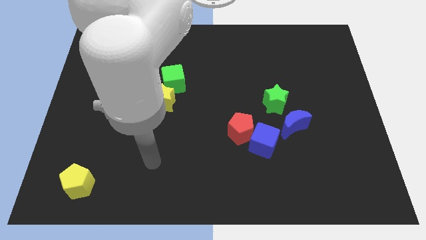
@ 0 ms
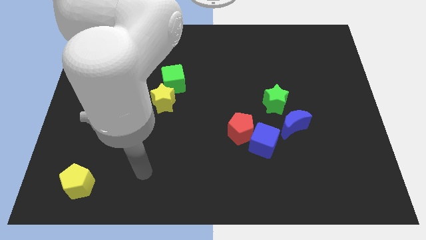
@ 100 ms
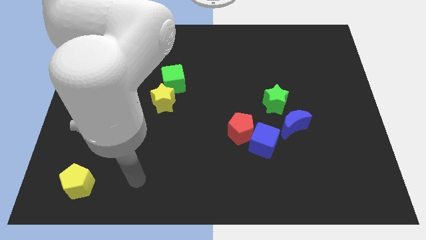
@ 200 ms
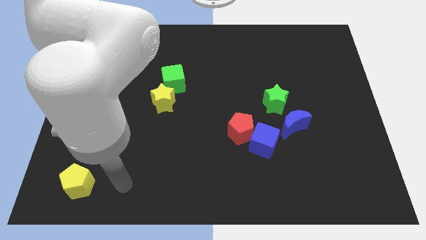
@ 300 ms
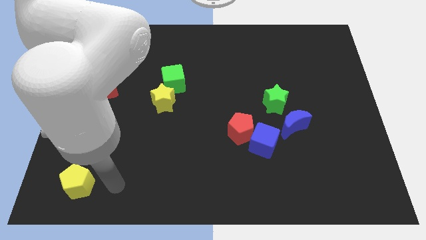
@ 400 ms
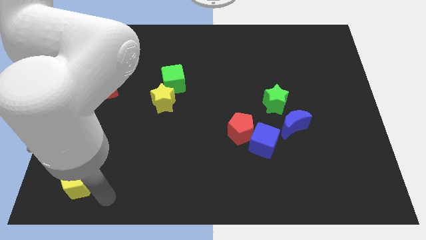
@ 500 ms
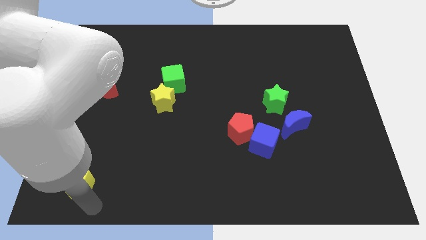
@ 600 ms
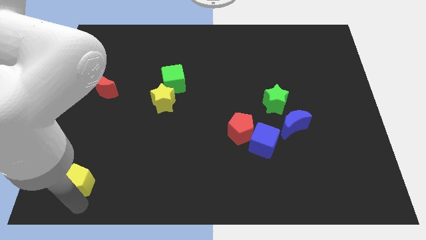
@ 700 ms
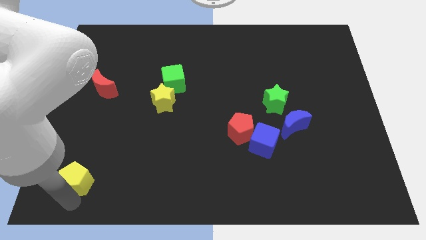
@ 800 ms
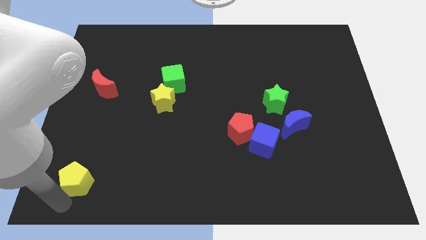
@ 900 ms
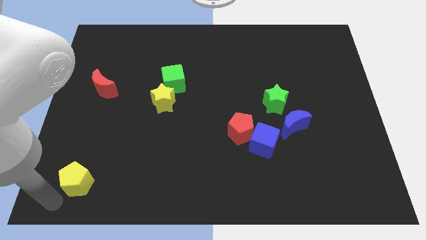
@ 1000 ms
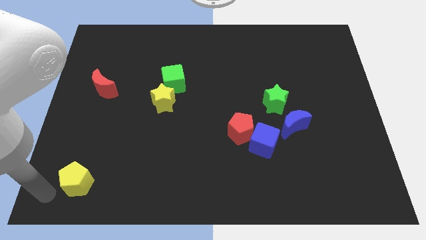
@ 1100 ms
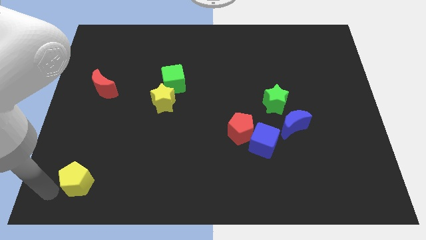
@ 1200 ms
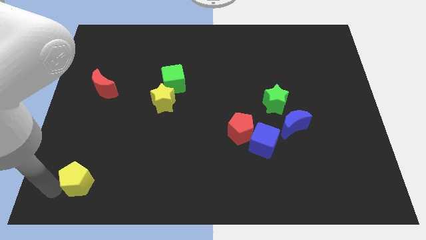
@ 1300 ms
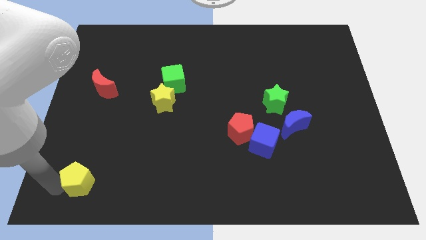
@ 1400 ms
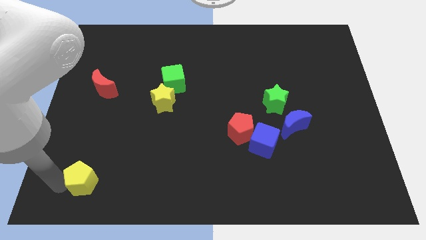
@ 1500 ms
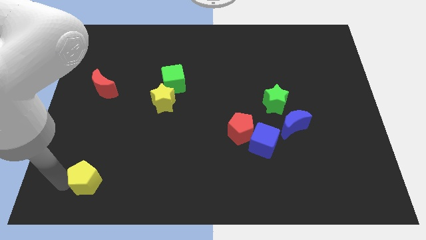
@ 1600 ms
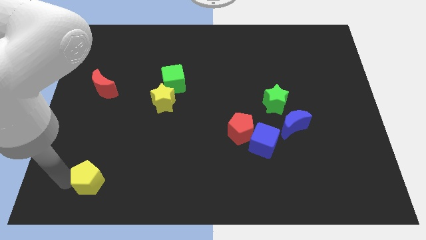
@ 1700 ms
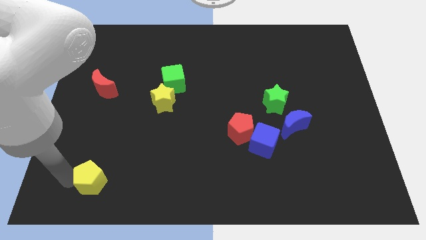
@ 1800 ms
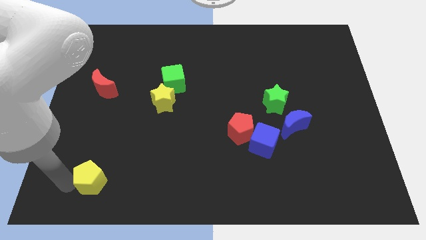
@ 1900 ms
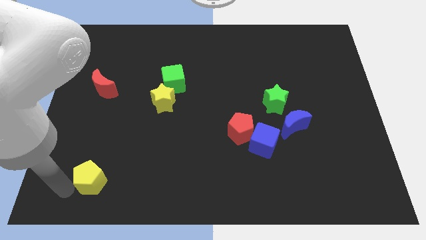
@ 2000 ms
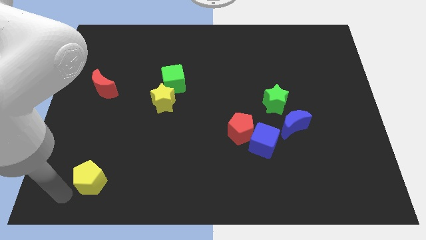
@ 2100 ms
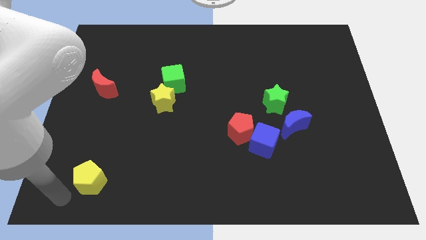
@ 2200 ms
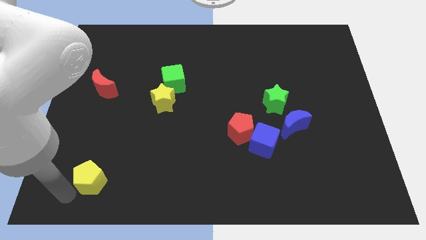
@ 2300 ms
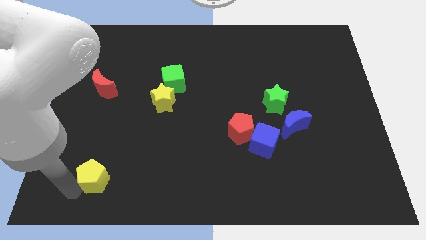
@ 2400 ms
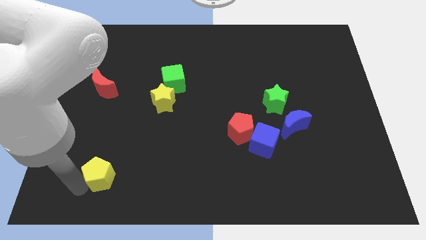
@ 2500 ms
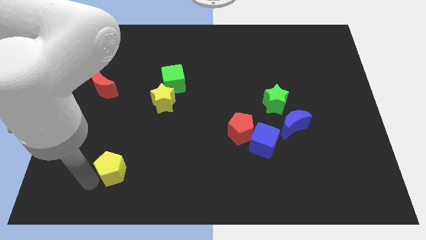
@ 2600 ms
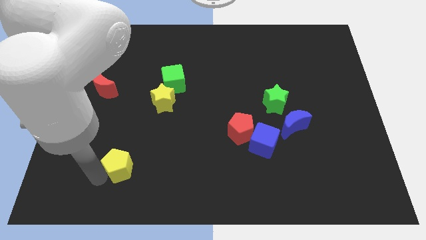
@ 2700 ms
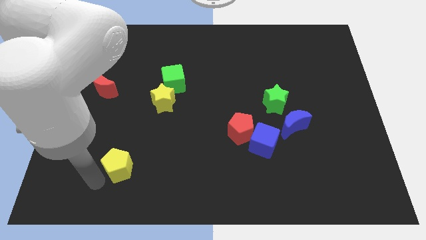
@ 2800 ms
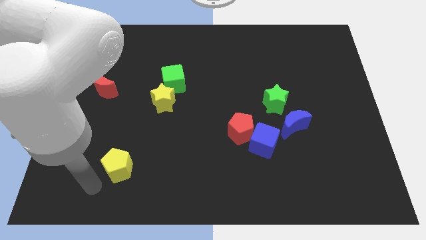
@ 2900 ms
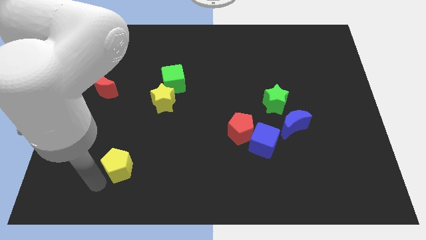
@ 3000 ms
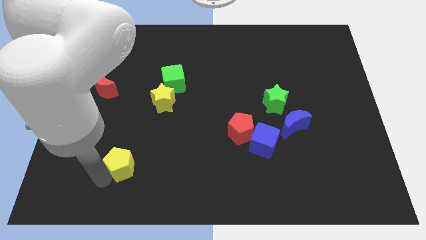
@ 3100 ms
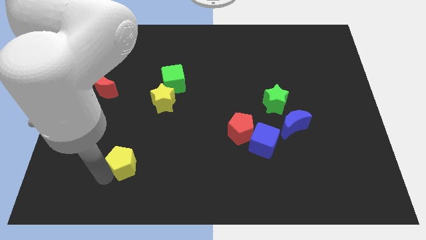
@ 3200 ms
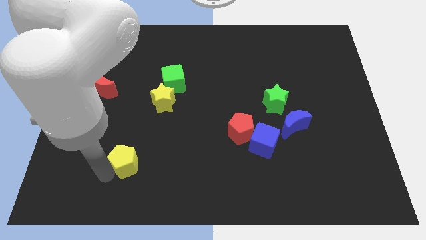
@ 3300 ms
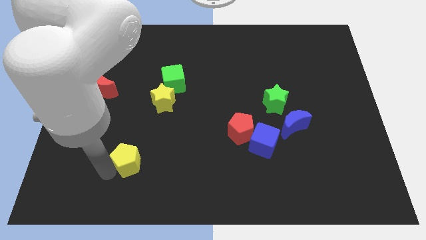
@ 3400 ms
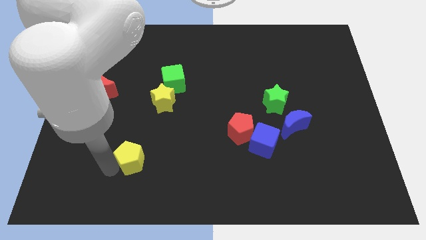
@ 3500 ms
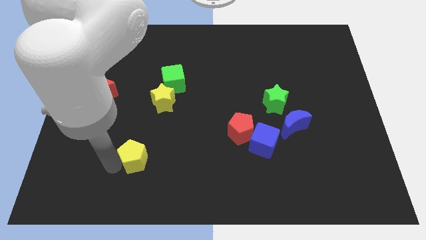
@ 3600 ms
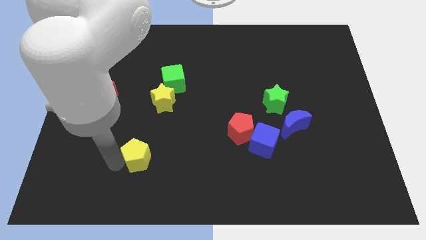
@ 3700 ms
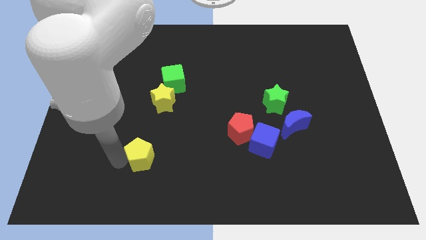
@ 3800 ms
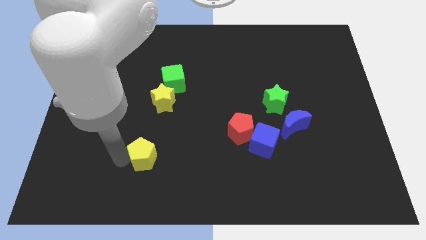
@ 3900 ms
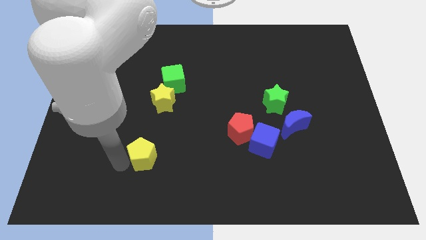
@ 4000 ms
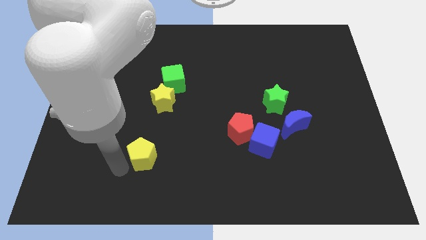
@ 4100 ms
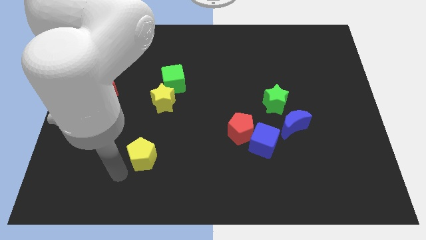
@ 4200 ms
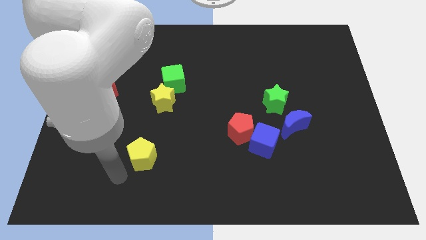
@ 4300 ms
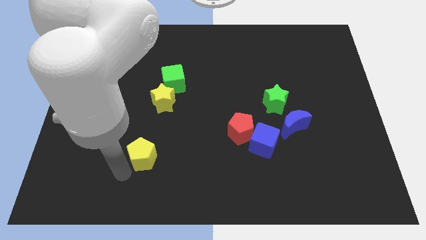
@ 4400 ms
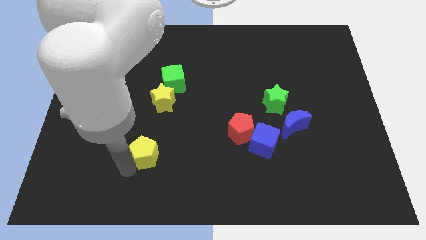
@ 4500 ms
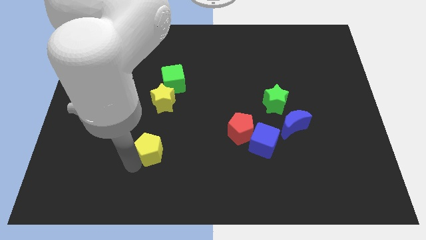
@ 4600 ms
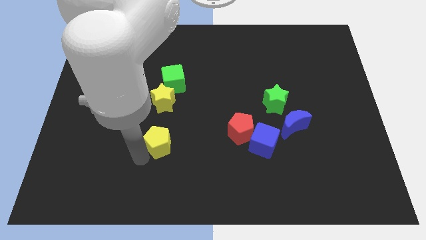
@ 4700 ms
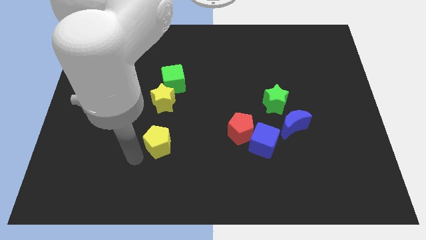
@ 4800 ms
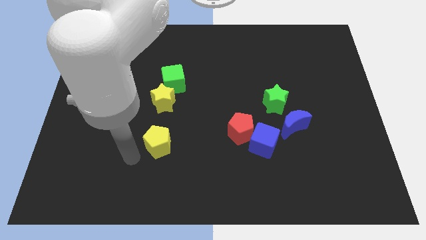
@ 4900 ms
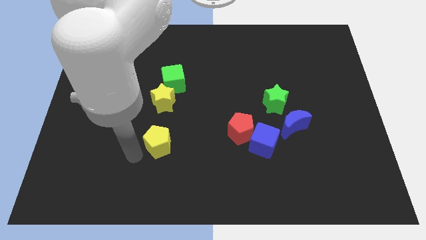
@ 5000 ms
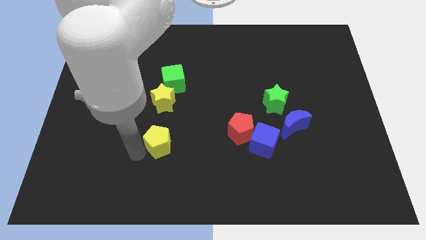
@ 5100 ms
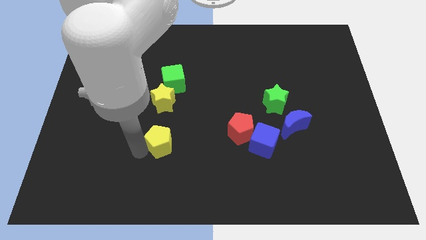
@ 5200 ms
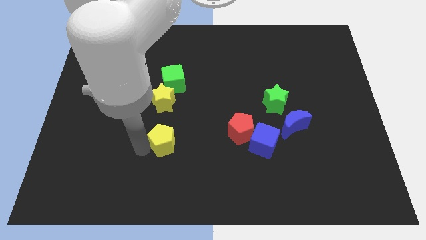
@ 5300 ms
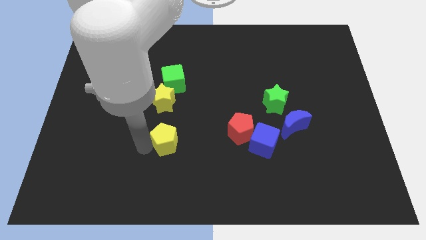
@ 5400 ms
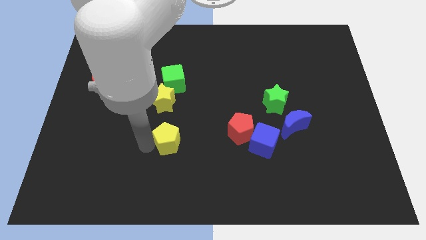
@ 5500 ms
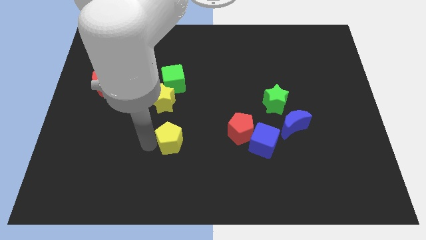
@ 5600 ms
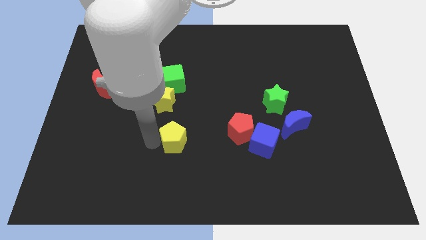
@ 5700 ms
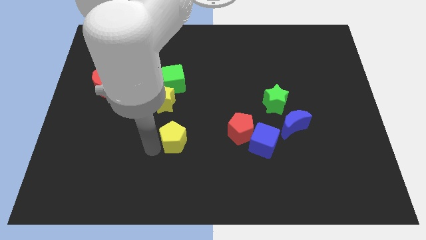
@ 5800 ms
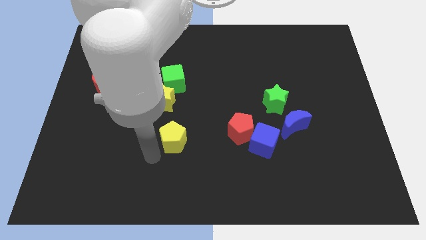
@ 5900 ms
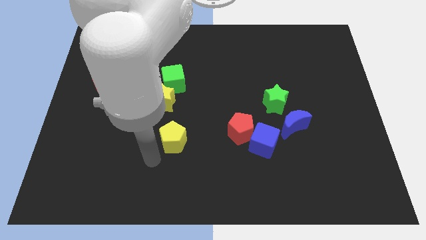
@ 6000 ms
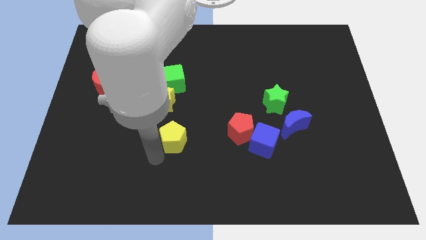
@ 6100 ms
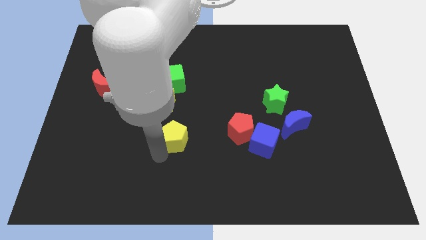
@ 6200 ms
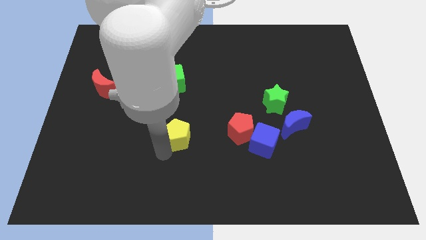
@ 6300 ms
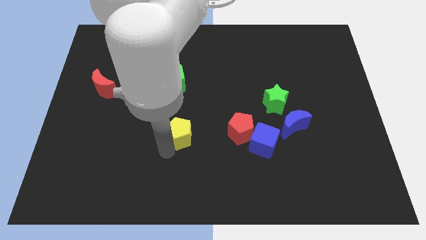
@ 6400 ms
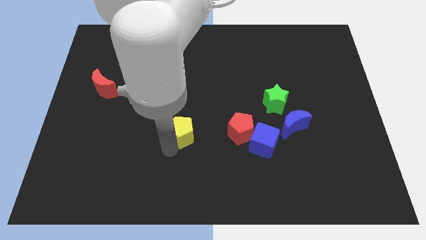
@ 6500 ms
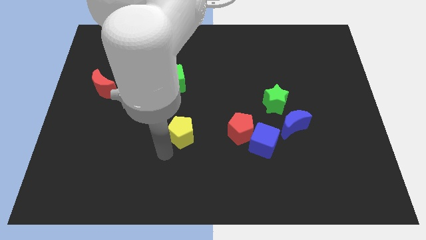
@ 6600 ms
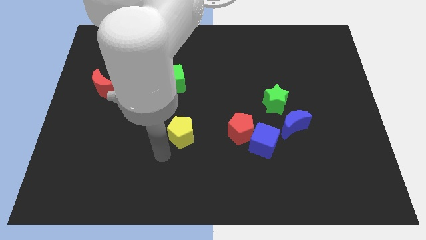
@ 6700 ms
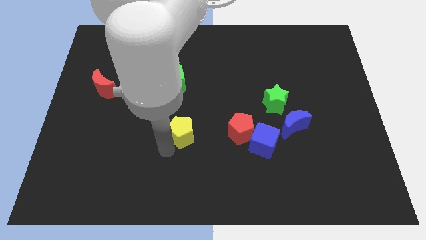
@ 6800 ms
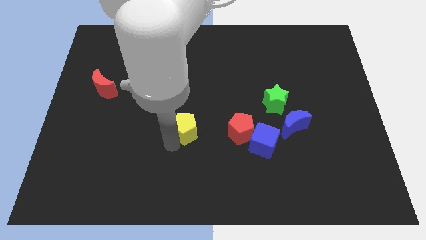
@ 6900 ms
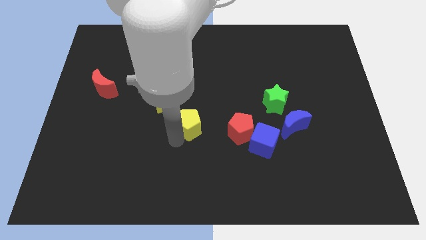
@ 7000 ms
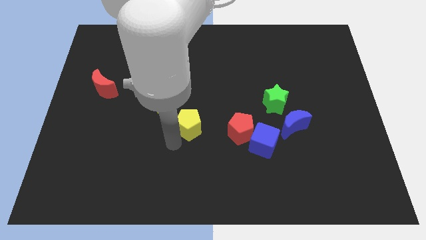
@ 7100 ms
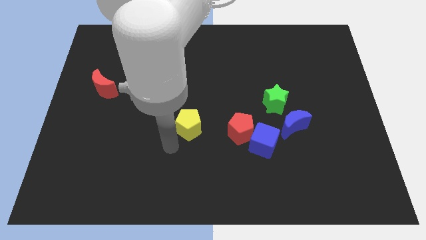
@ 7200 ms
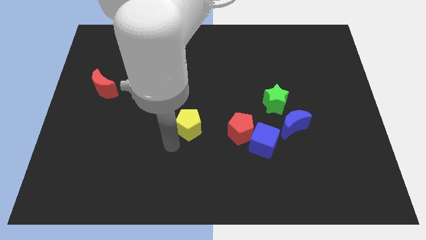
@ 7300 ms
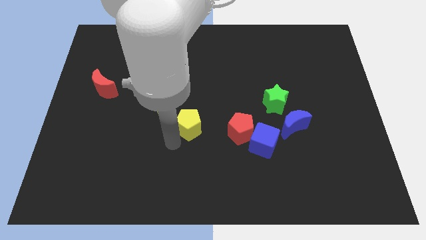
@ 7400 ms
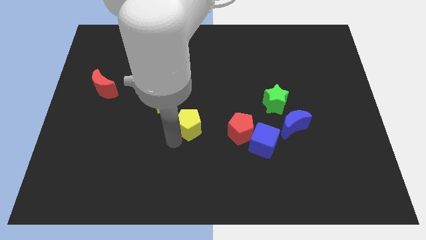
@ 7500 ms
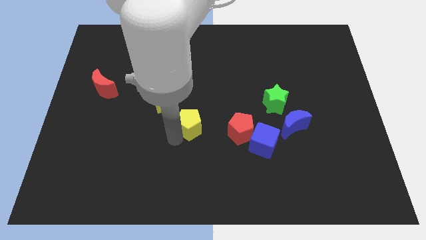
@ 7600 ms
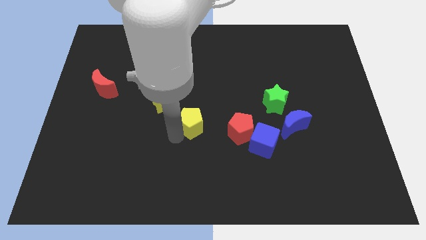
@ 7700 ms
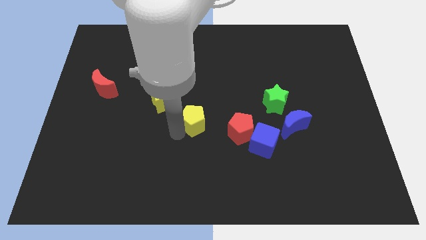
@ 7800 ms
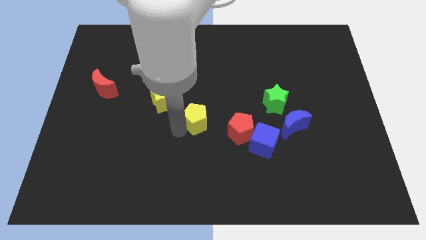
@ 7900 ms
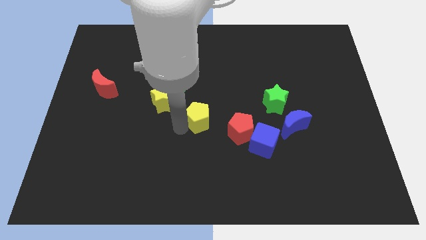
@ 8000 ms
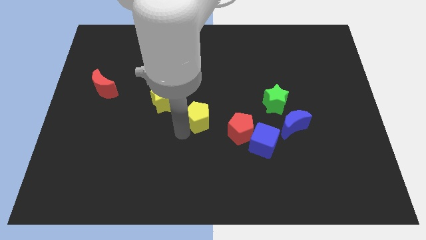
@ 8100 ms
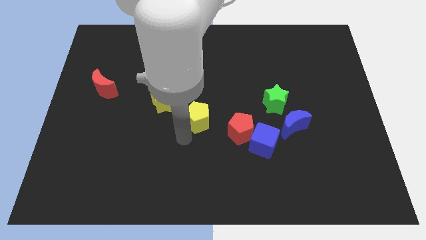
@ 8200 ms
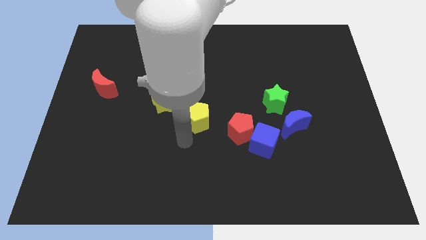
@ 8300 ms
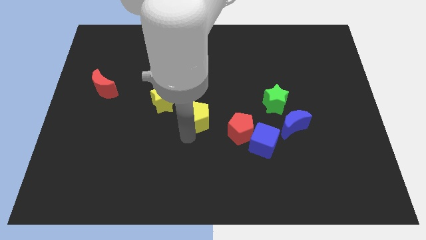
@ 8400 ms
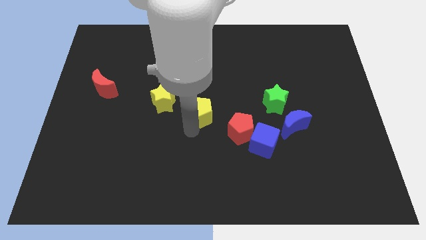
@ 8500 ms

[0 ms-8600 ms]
push the yellow pentagon to the right of the yellow star
